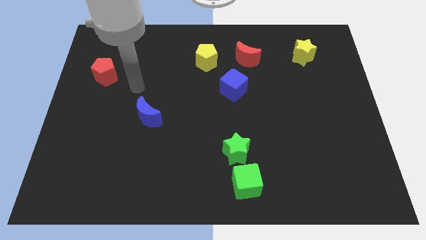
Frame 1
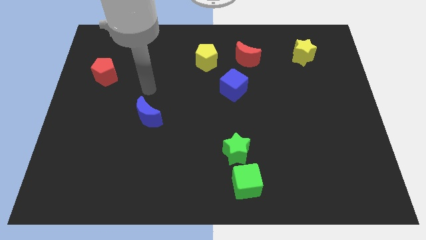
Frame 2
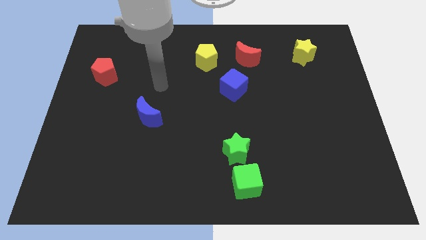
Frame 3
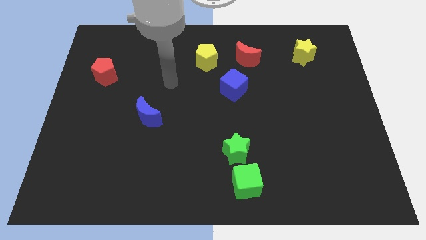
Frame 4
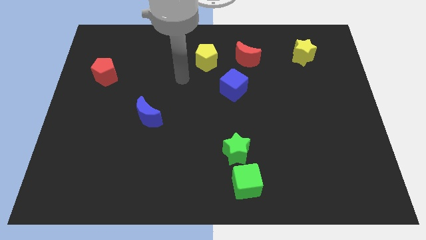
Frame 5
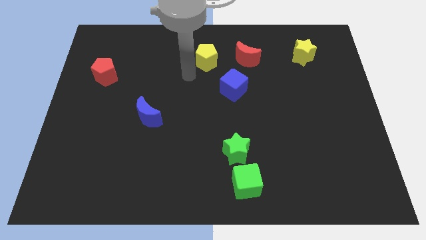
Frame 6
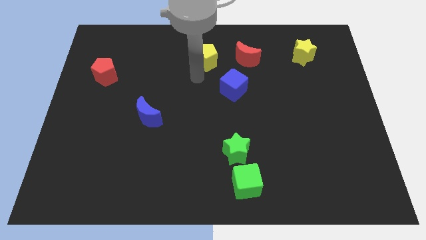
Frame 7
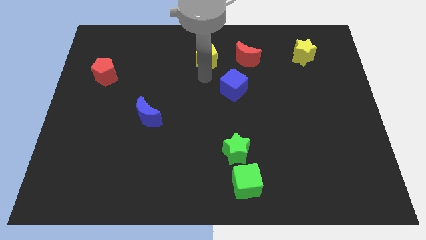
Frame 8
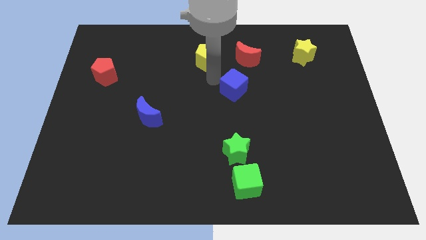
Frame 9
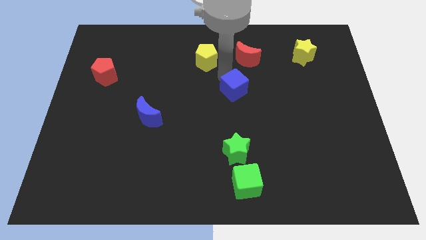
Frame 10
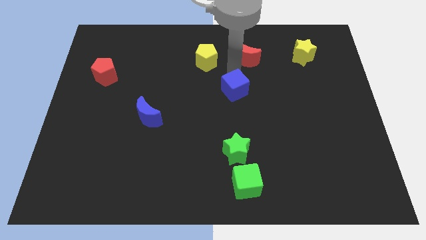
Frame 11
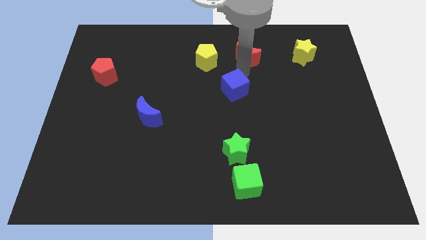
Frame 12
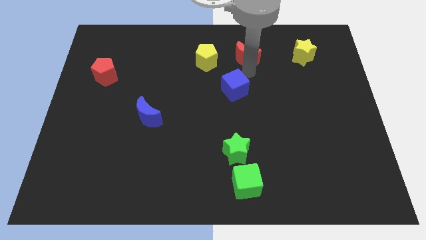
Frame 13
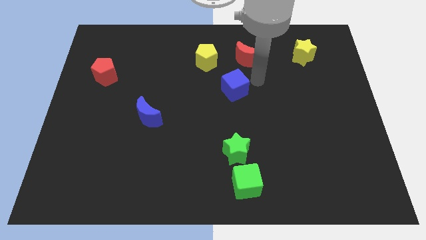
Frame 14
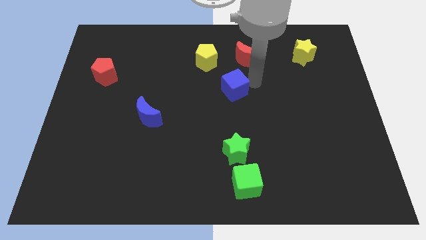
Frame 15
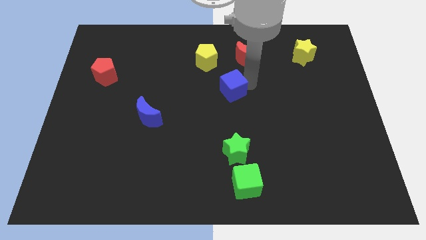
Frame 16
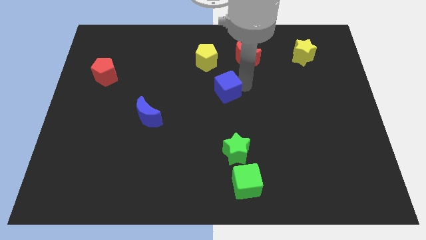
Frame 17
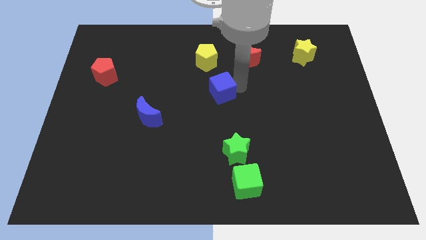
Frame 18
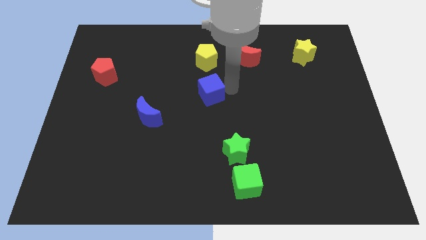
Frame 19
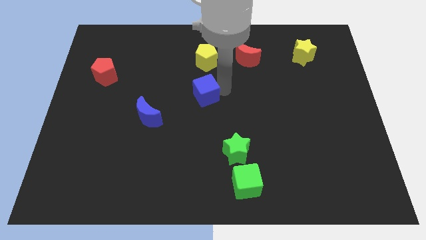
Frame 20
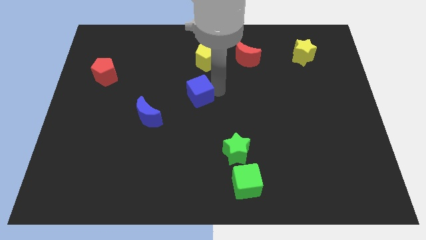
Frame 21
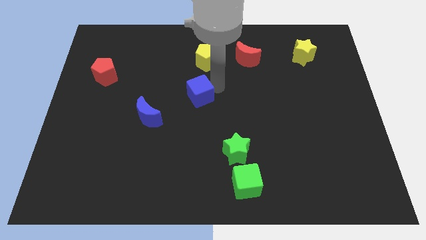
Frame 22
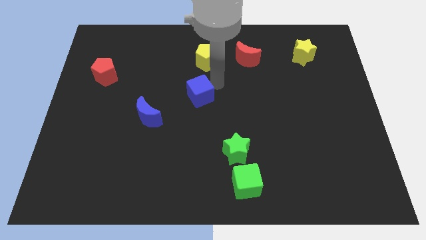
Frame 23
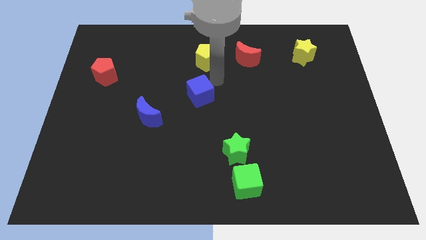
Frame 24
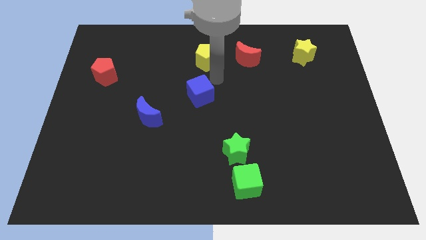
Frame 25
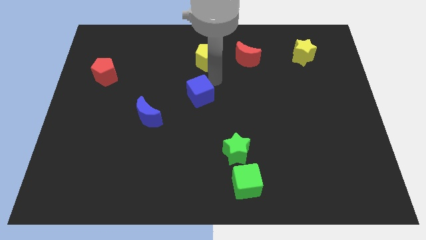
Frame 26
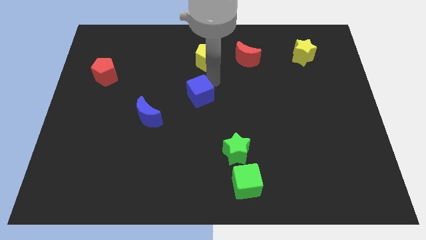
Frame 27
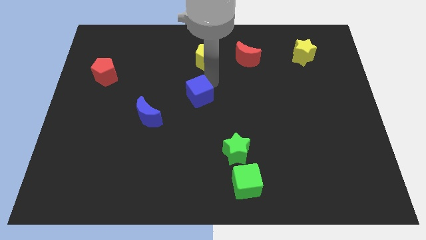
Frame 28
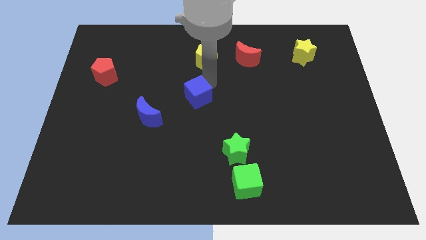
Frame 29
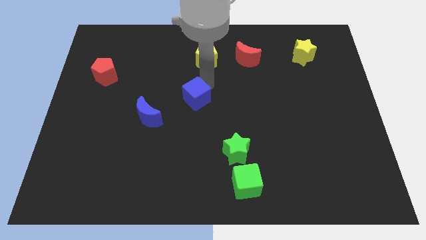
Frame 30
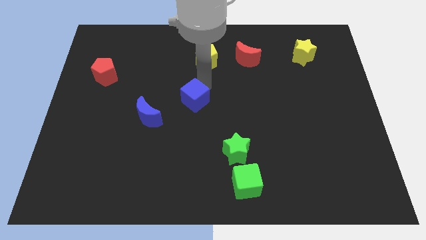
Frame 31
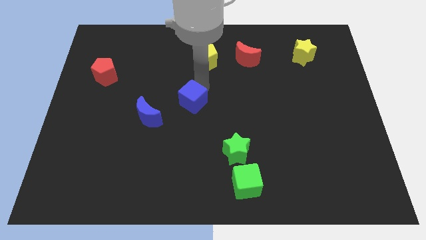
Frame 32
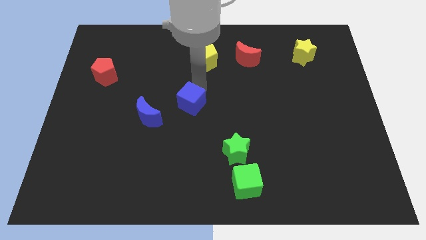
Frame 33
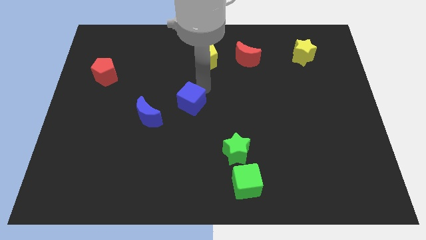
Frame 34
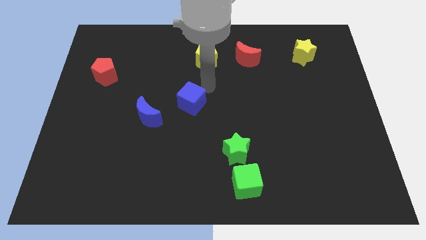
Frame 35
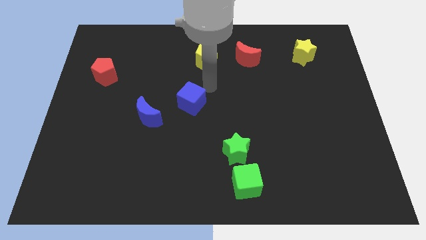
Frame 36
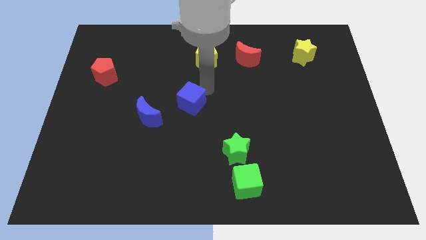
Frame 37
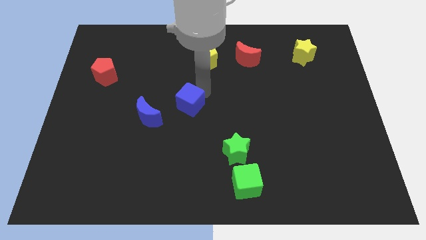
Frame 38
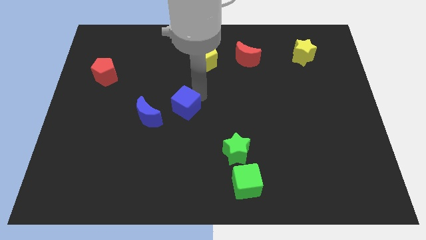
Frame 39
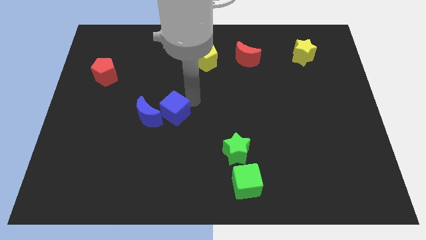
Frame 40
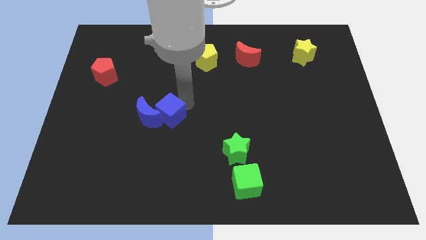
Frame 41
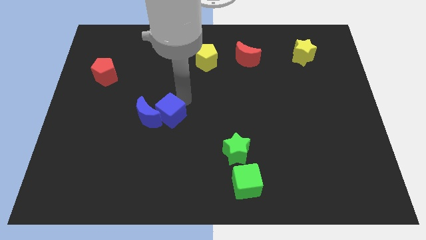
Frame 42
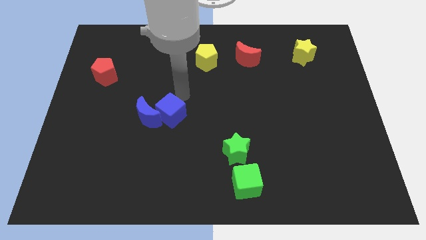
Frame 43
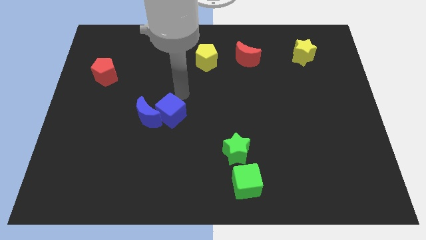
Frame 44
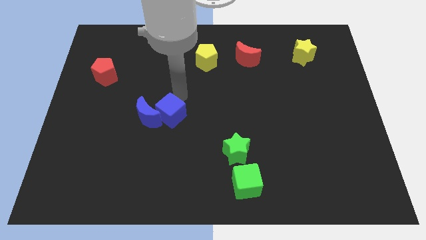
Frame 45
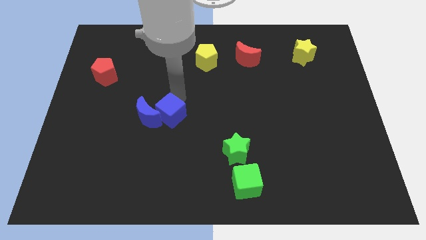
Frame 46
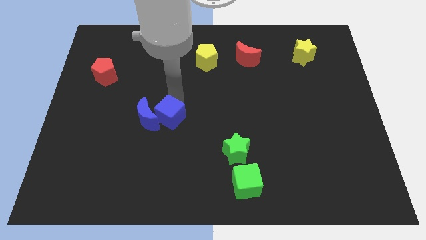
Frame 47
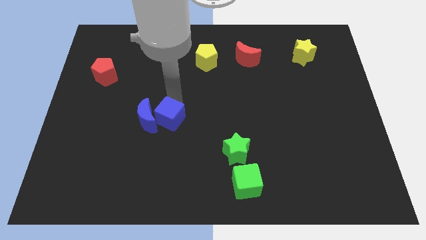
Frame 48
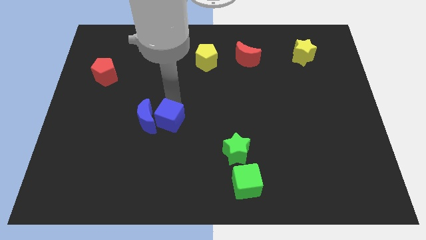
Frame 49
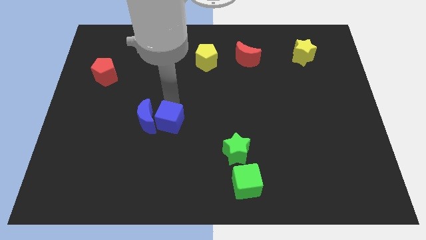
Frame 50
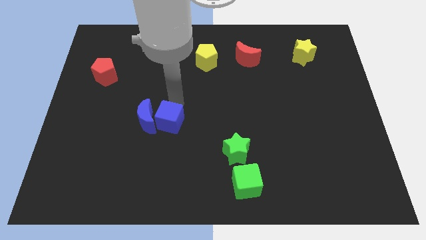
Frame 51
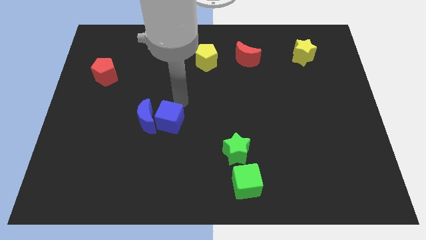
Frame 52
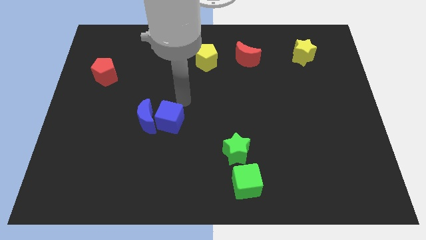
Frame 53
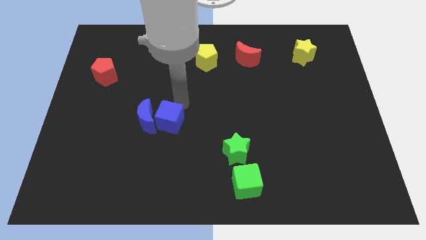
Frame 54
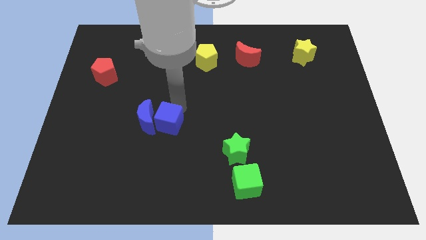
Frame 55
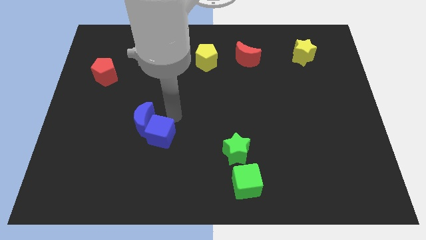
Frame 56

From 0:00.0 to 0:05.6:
move the blue cube to the bottom side of the blue moon

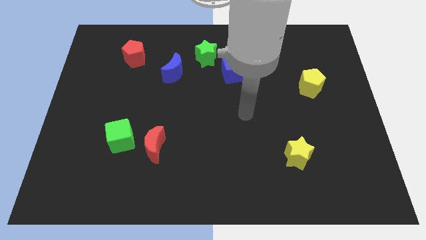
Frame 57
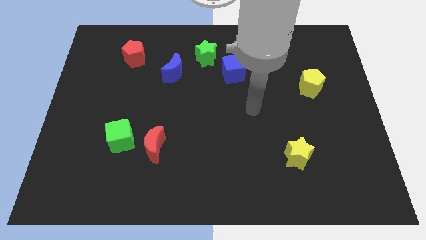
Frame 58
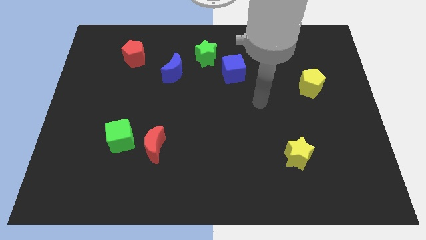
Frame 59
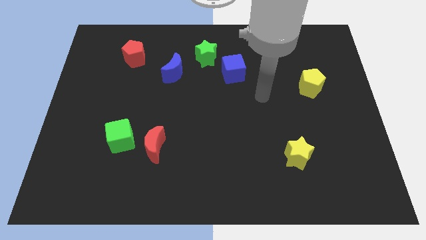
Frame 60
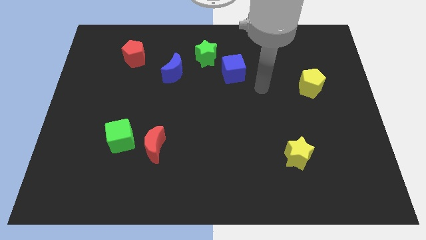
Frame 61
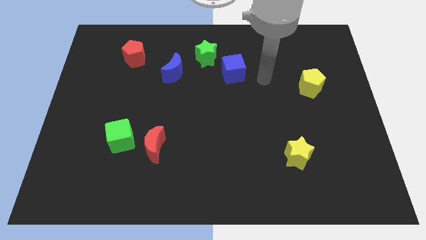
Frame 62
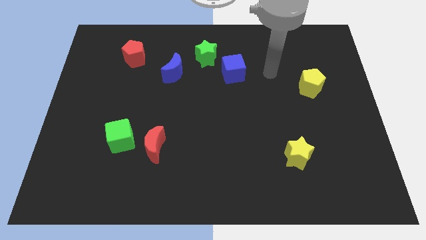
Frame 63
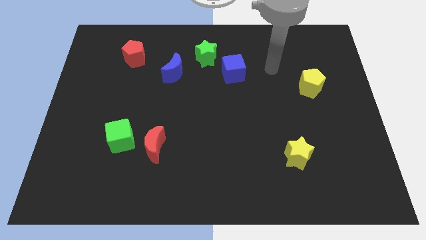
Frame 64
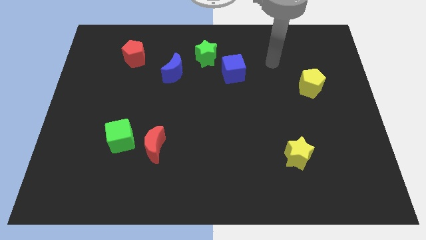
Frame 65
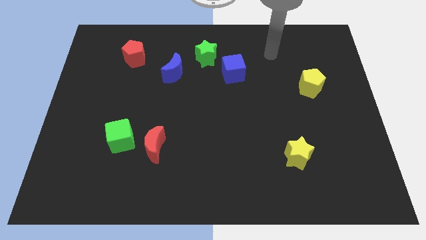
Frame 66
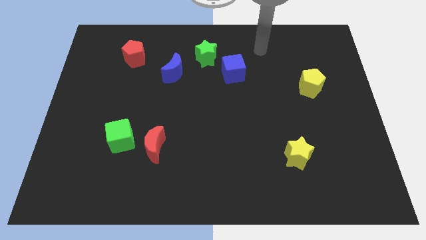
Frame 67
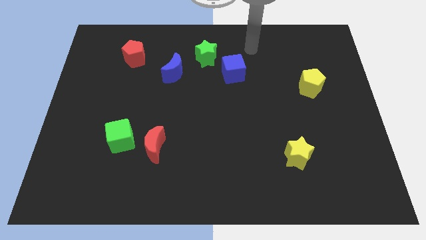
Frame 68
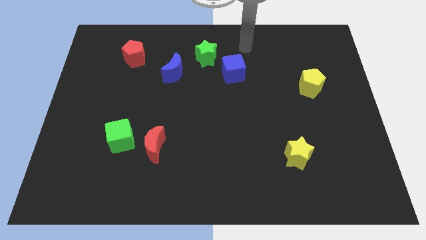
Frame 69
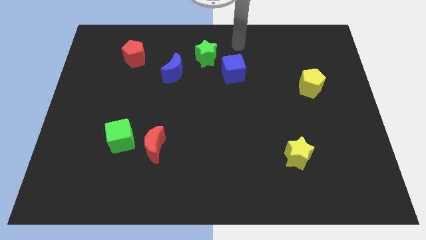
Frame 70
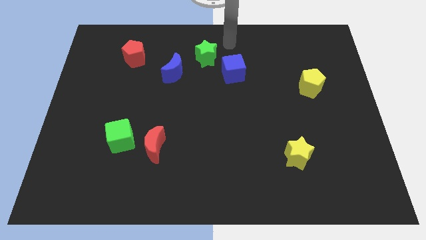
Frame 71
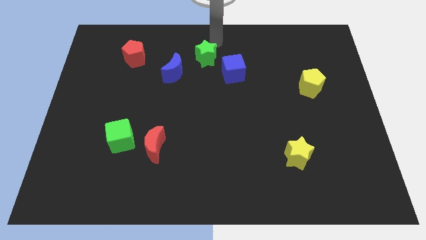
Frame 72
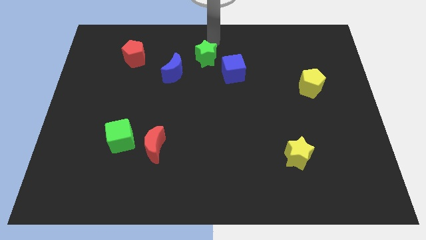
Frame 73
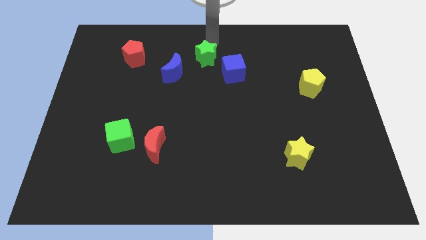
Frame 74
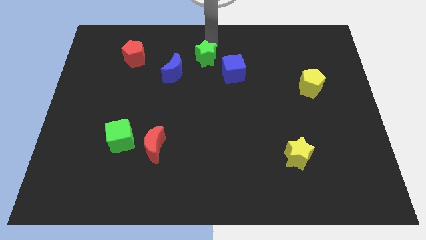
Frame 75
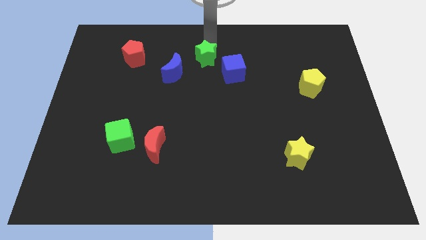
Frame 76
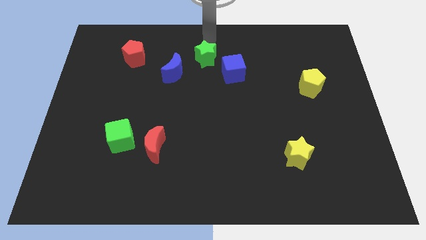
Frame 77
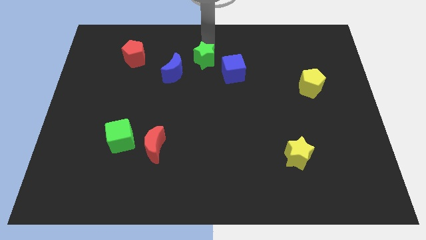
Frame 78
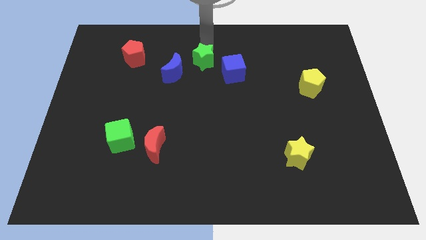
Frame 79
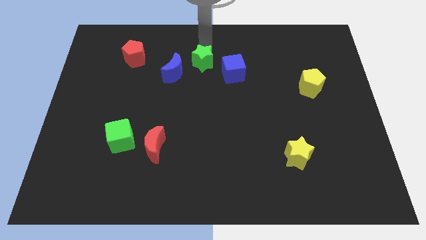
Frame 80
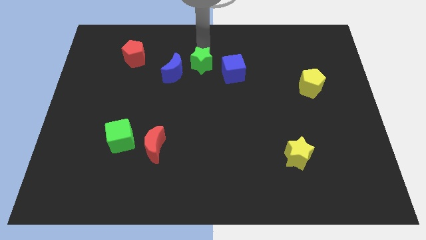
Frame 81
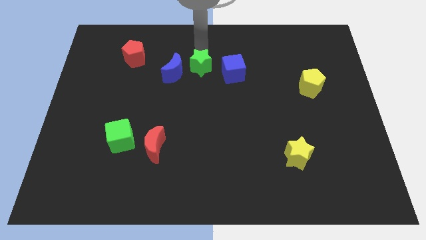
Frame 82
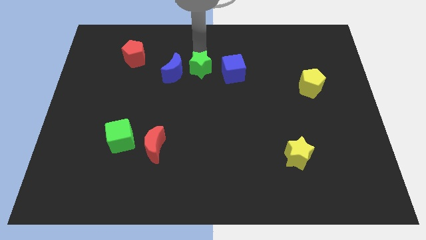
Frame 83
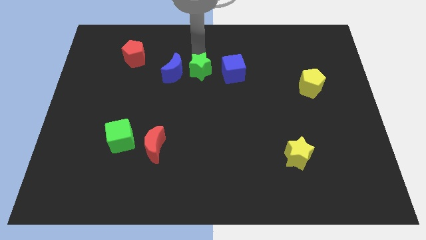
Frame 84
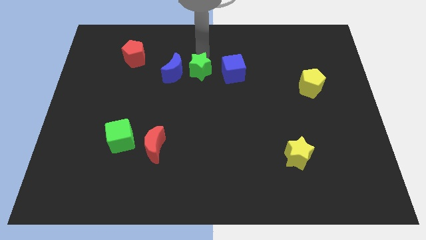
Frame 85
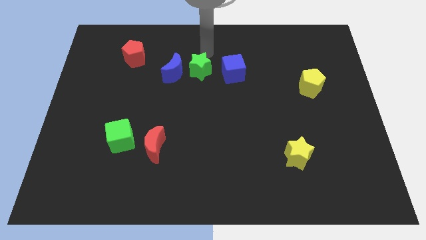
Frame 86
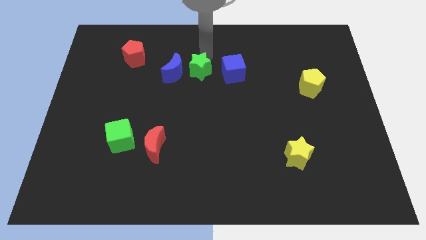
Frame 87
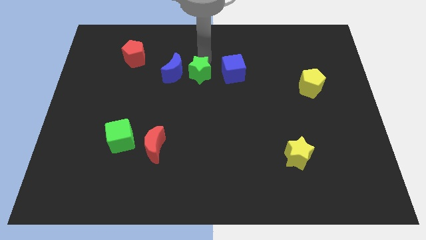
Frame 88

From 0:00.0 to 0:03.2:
move the green star to the bottom right of the blue moon

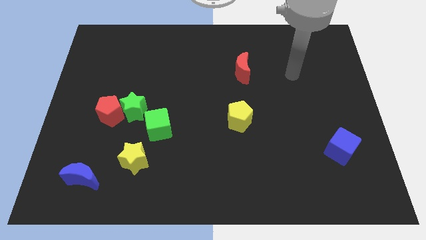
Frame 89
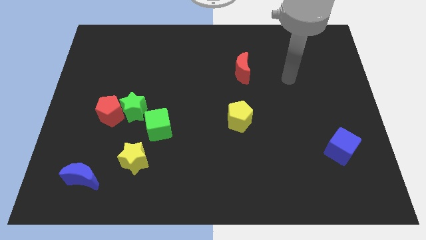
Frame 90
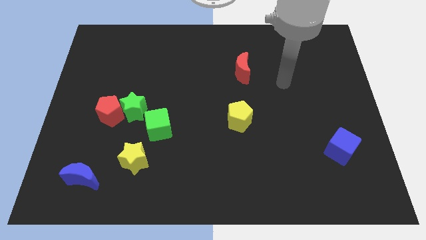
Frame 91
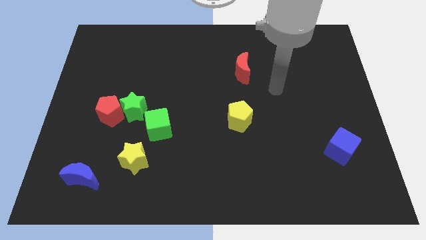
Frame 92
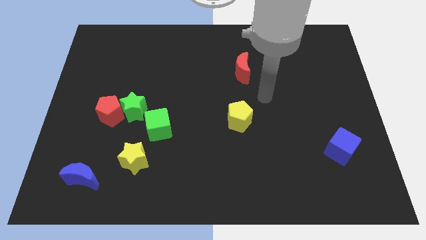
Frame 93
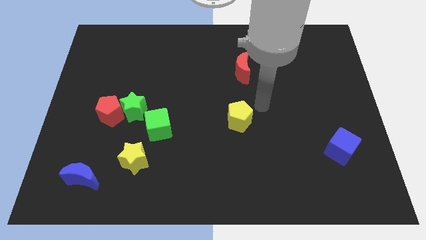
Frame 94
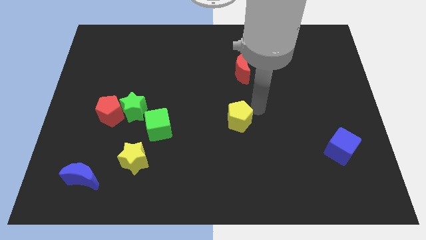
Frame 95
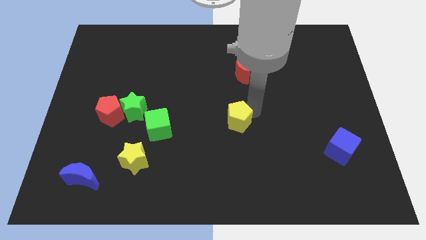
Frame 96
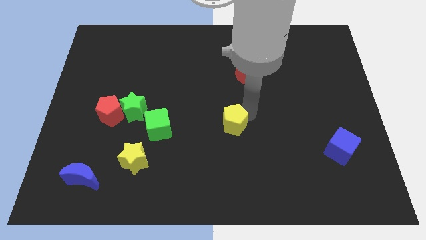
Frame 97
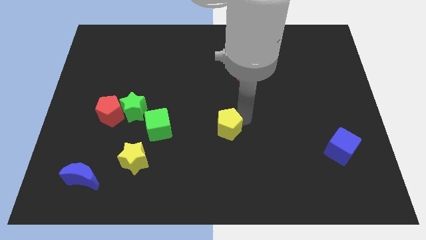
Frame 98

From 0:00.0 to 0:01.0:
move the yellow pentagon right of the green cube
